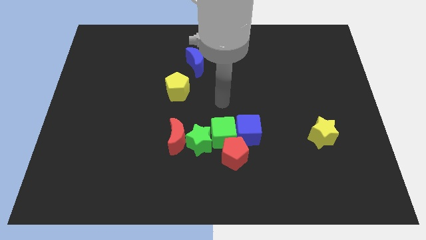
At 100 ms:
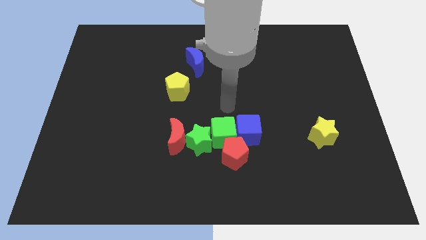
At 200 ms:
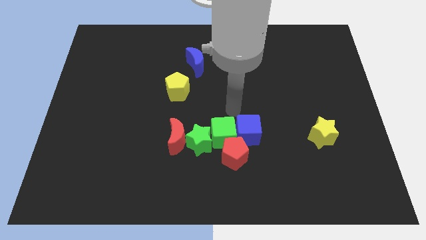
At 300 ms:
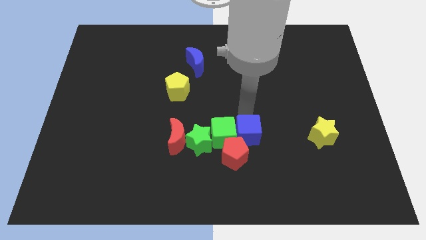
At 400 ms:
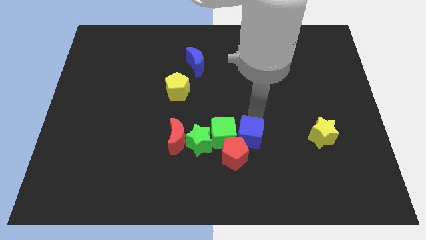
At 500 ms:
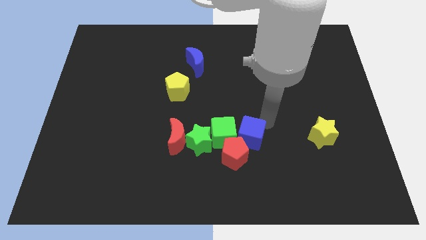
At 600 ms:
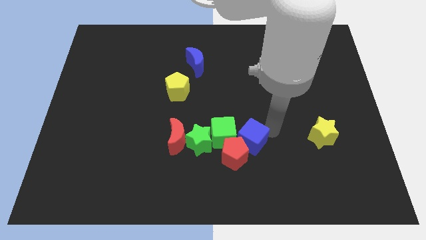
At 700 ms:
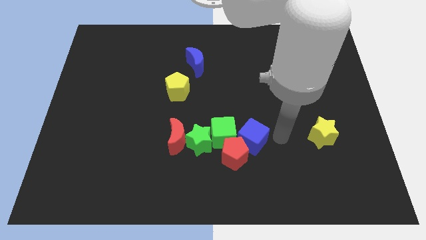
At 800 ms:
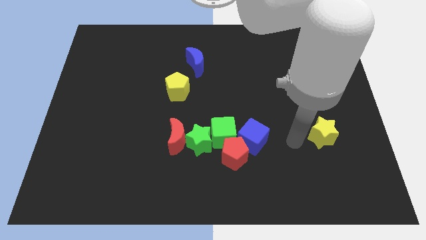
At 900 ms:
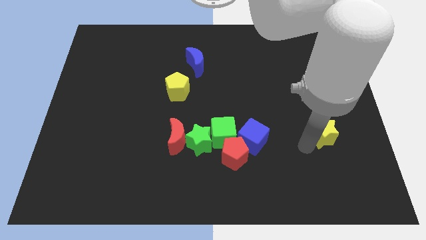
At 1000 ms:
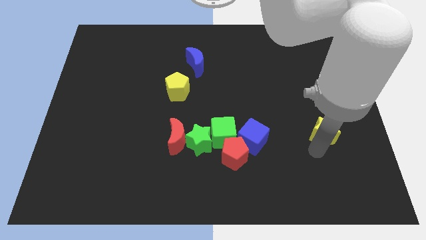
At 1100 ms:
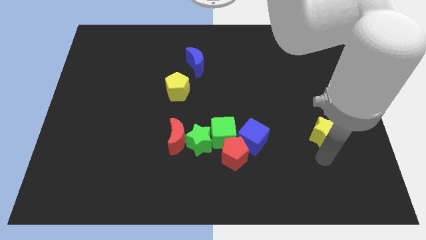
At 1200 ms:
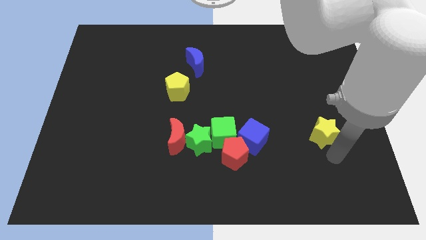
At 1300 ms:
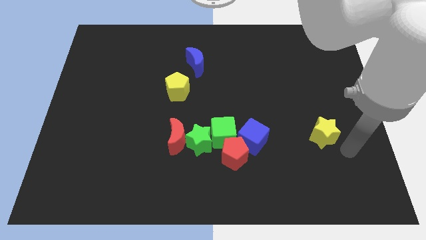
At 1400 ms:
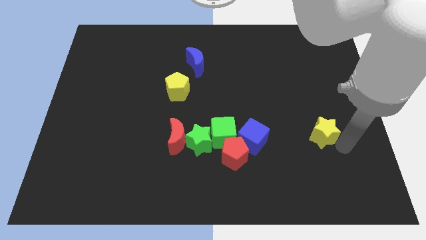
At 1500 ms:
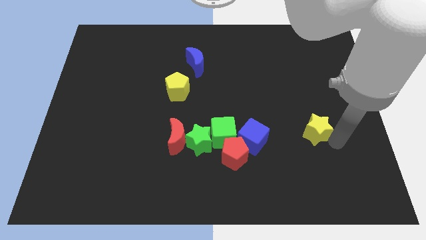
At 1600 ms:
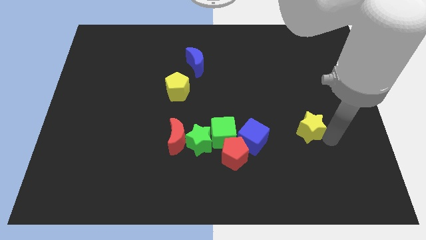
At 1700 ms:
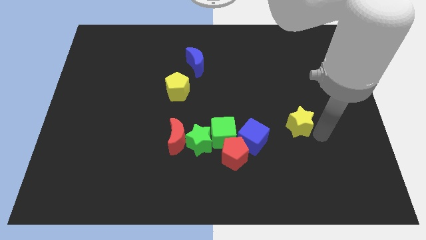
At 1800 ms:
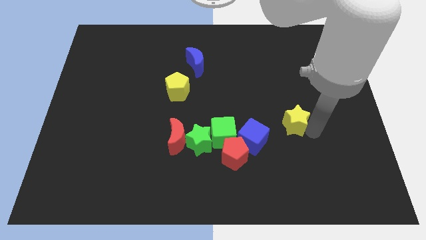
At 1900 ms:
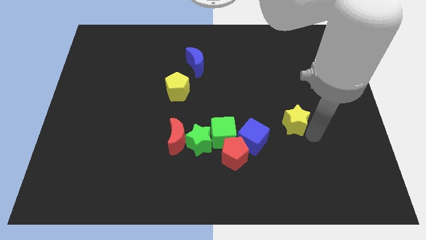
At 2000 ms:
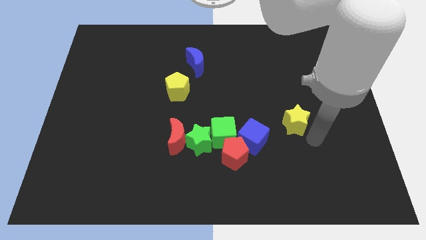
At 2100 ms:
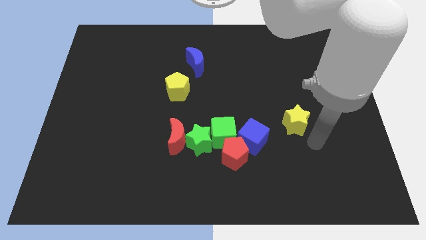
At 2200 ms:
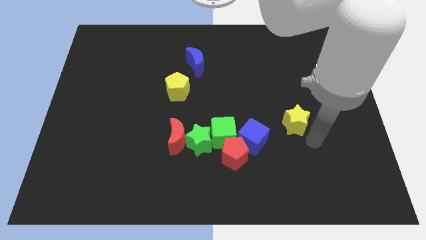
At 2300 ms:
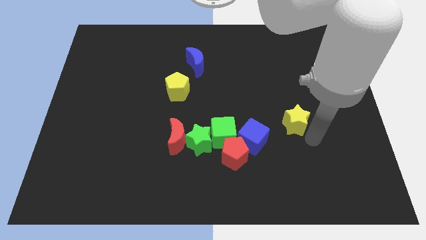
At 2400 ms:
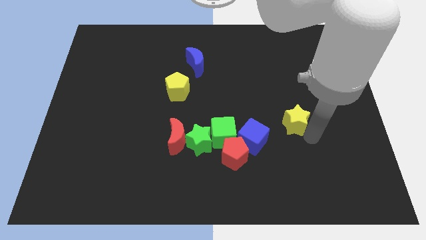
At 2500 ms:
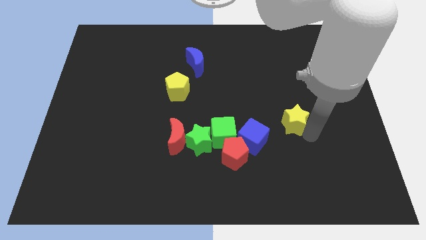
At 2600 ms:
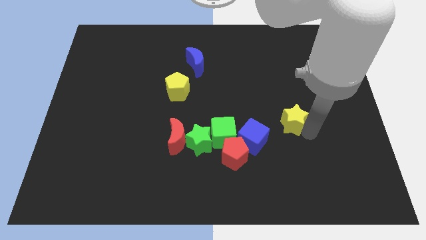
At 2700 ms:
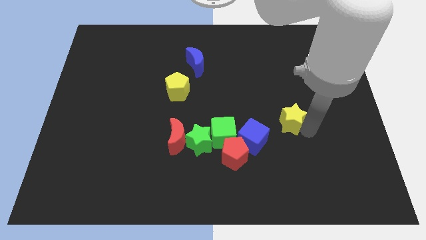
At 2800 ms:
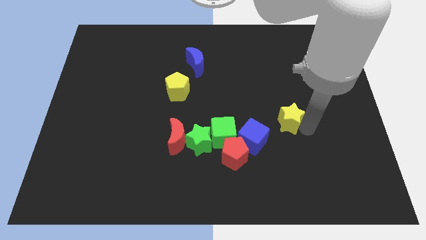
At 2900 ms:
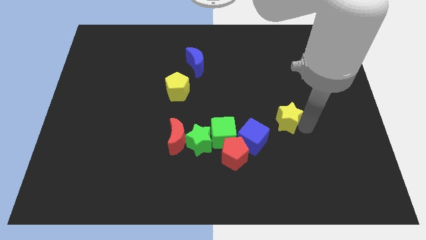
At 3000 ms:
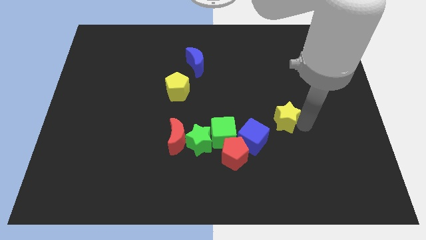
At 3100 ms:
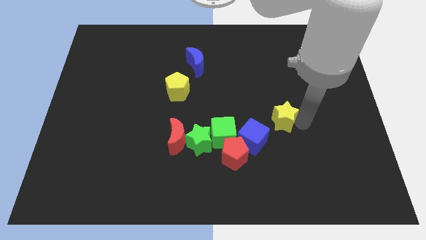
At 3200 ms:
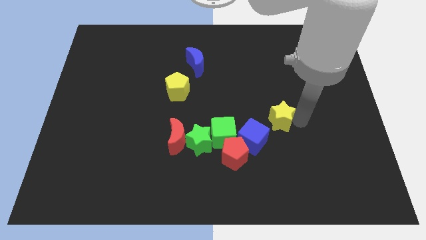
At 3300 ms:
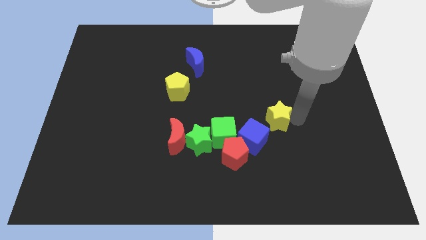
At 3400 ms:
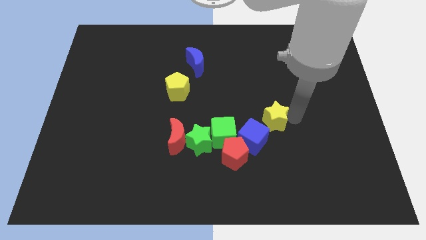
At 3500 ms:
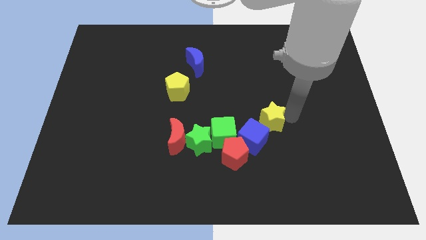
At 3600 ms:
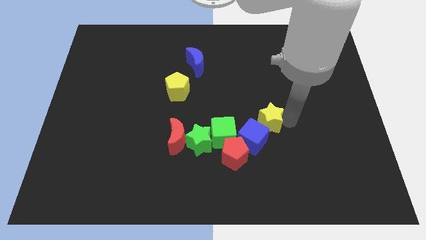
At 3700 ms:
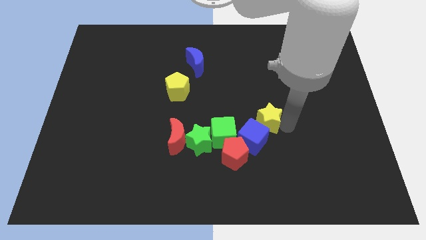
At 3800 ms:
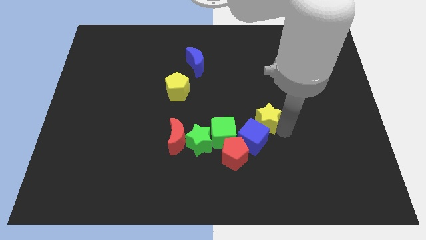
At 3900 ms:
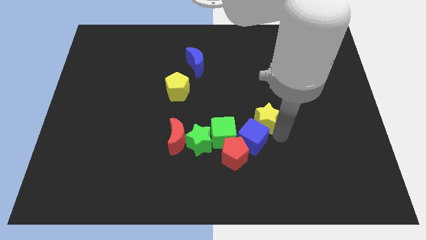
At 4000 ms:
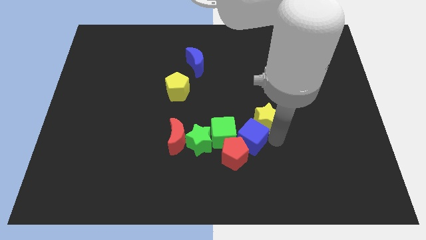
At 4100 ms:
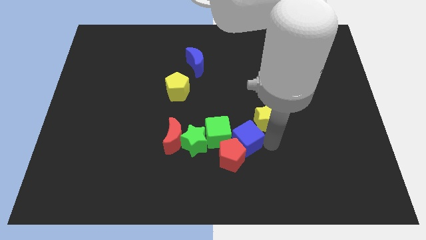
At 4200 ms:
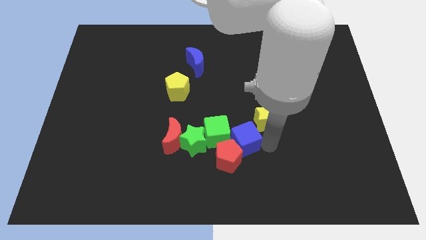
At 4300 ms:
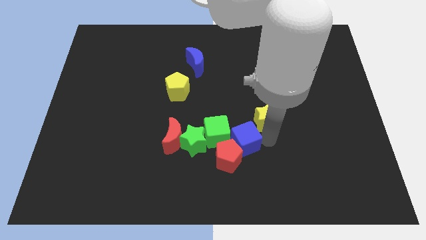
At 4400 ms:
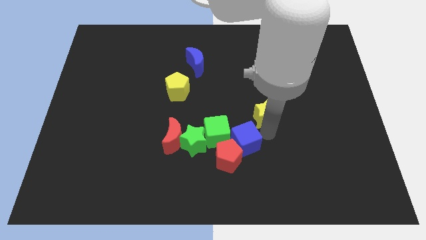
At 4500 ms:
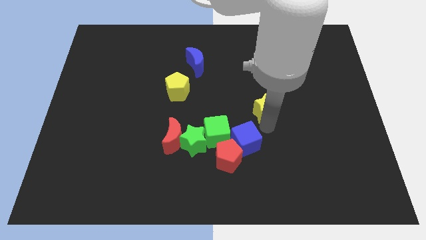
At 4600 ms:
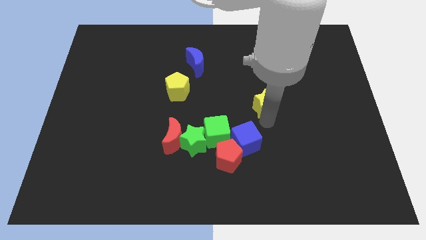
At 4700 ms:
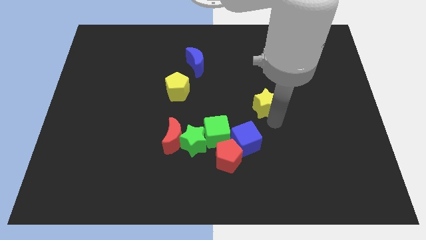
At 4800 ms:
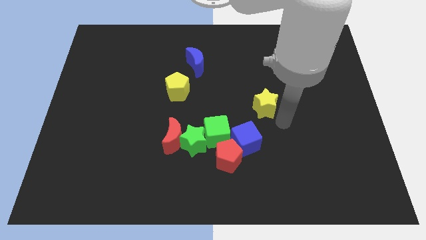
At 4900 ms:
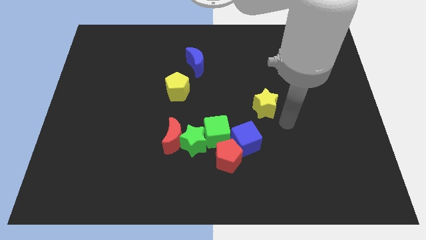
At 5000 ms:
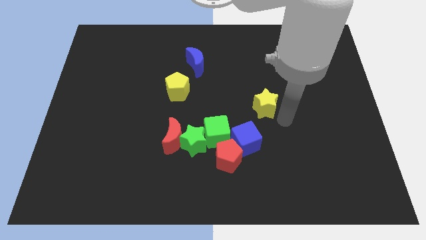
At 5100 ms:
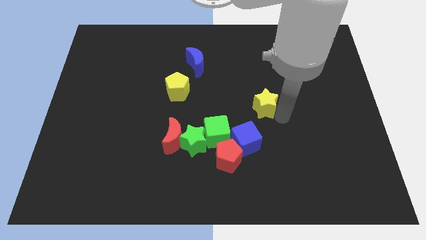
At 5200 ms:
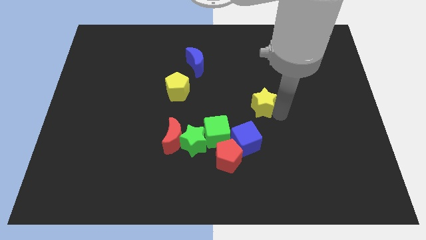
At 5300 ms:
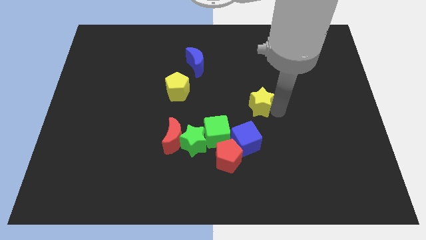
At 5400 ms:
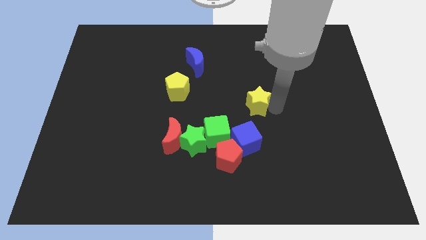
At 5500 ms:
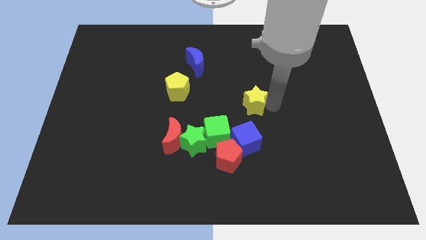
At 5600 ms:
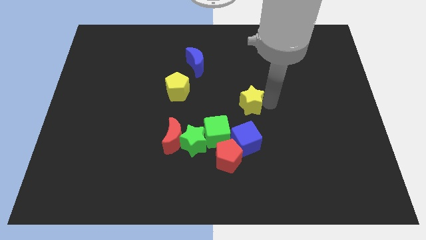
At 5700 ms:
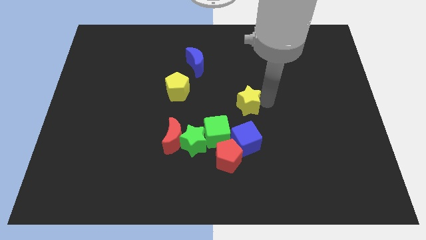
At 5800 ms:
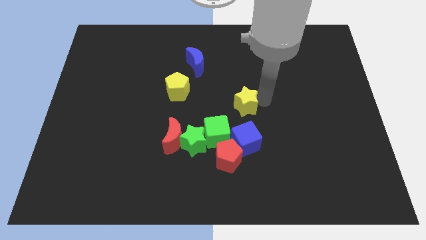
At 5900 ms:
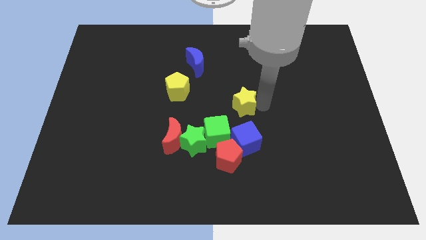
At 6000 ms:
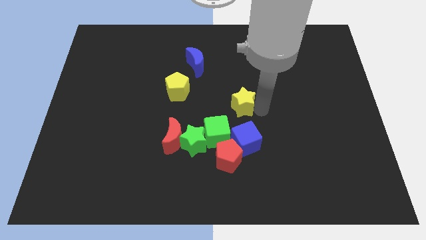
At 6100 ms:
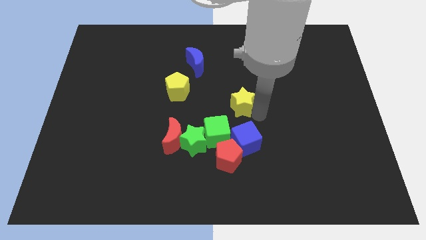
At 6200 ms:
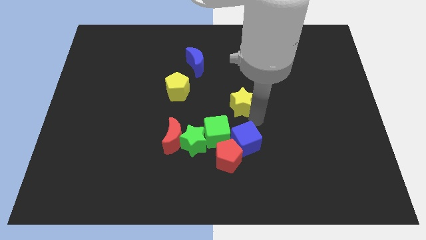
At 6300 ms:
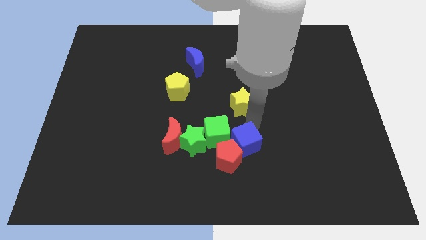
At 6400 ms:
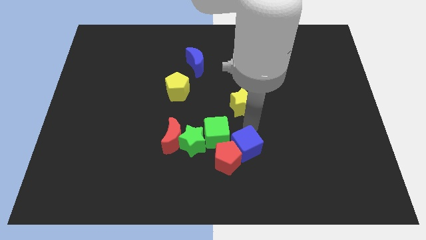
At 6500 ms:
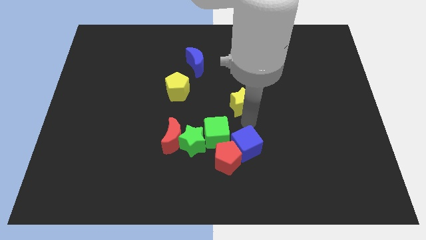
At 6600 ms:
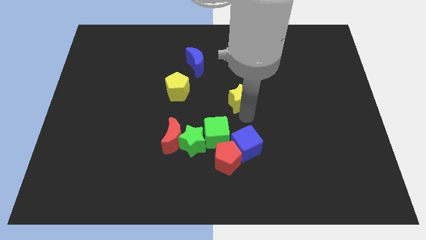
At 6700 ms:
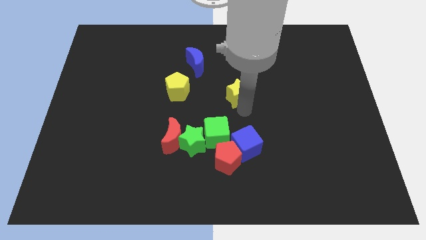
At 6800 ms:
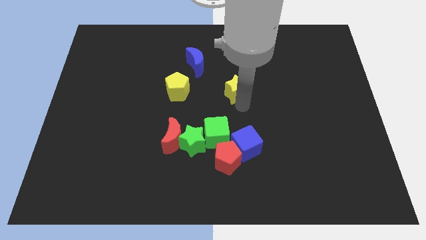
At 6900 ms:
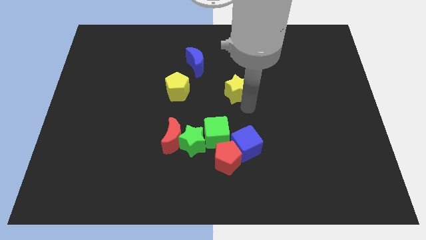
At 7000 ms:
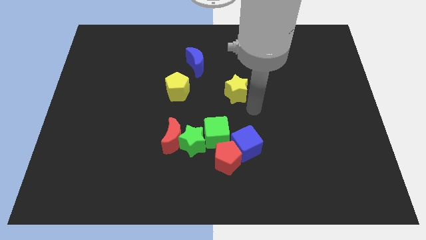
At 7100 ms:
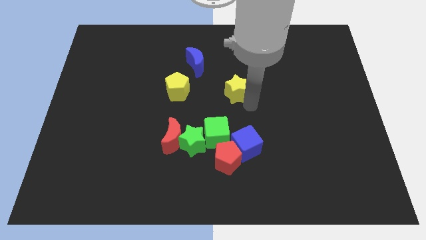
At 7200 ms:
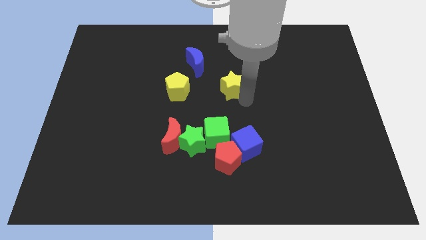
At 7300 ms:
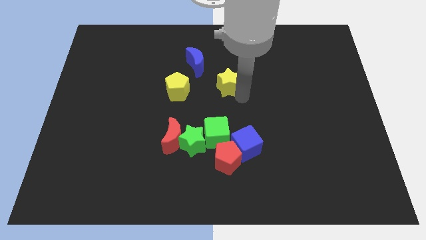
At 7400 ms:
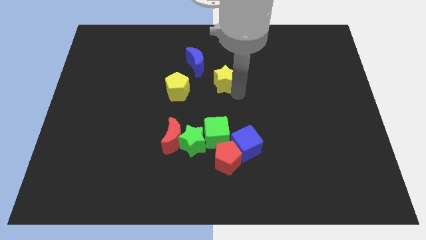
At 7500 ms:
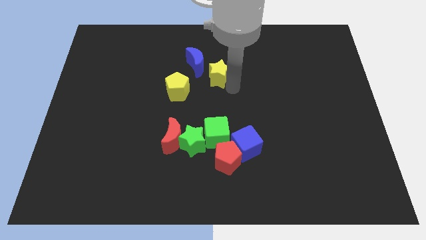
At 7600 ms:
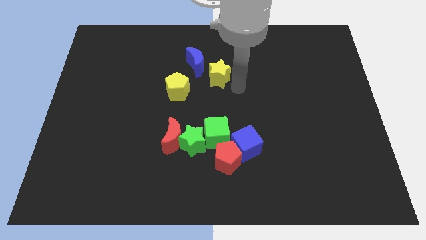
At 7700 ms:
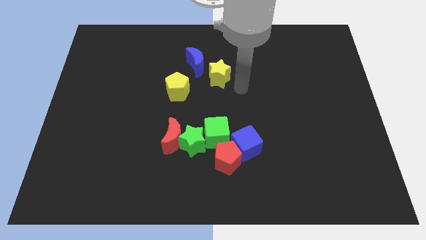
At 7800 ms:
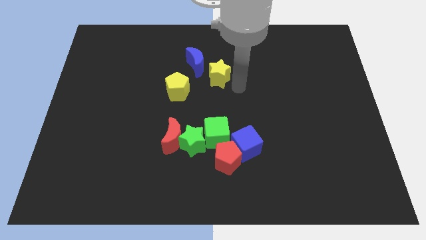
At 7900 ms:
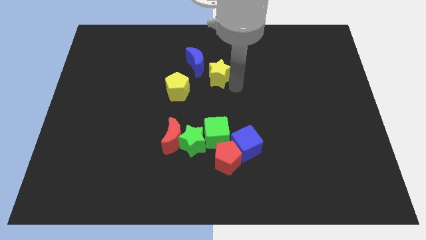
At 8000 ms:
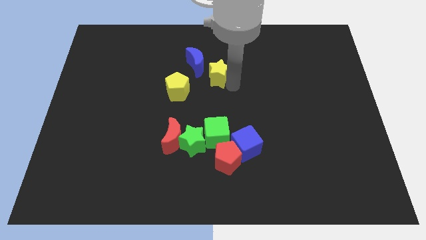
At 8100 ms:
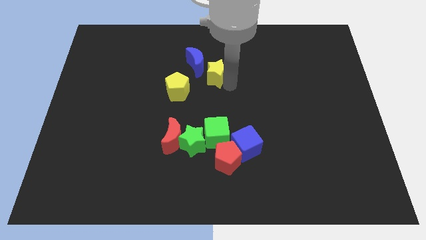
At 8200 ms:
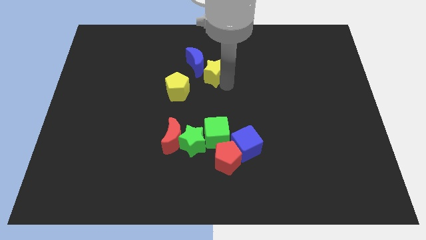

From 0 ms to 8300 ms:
move the yellow star towards the blue moon
